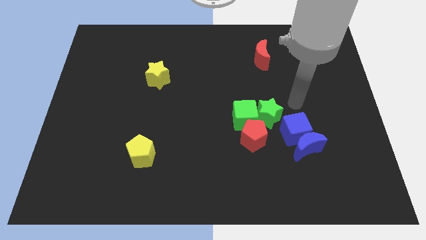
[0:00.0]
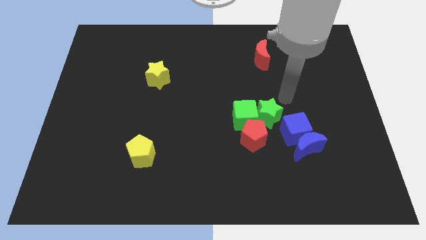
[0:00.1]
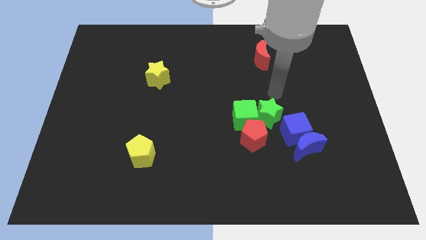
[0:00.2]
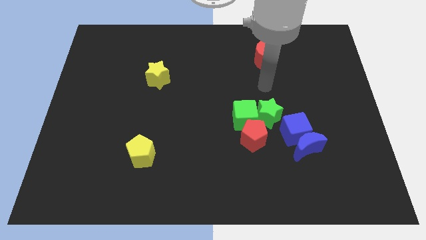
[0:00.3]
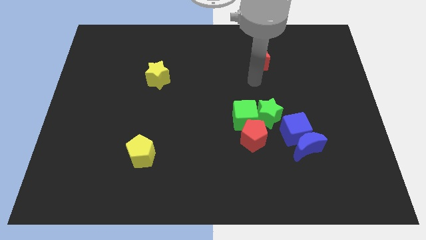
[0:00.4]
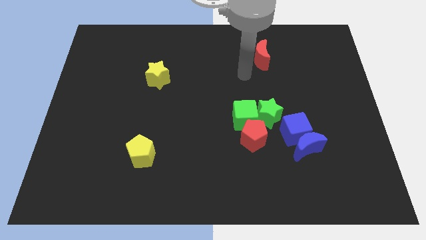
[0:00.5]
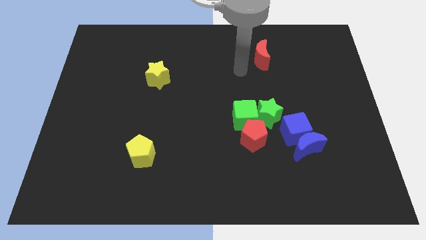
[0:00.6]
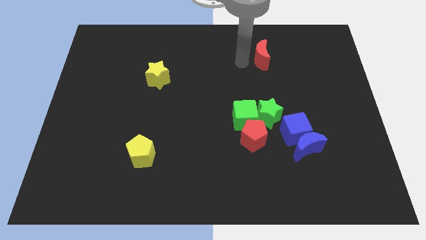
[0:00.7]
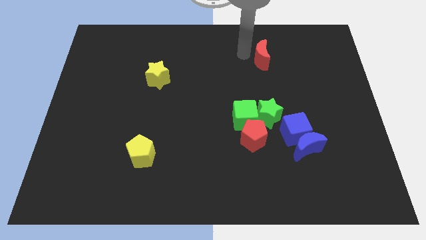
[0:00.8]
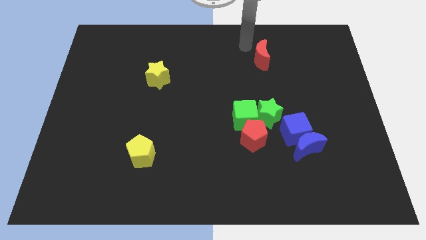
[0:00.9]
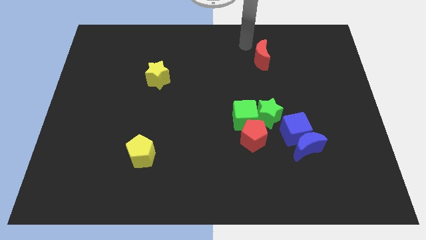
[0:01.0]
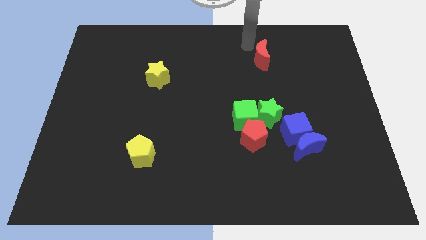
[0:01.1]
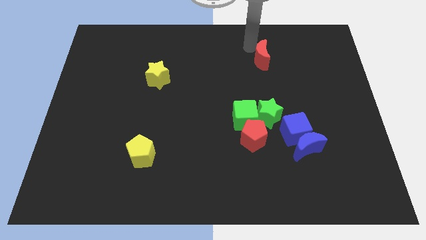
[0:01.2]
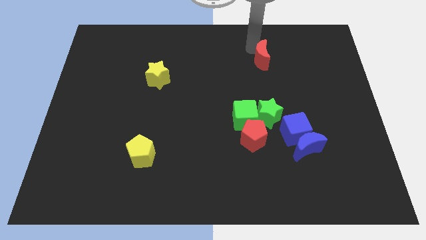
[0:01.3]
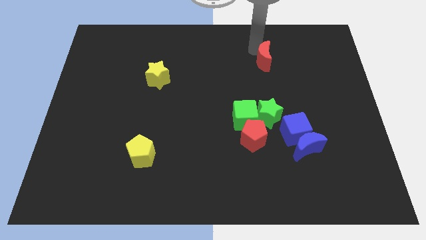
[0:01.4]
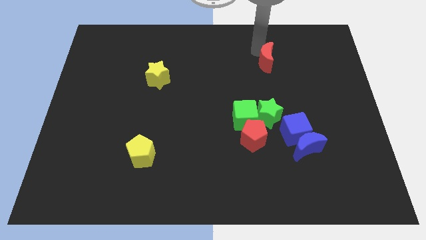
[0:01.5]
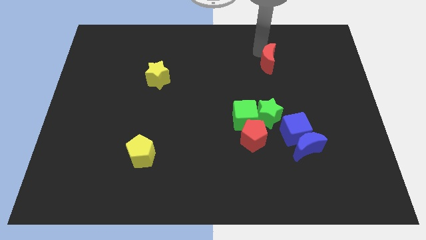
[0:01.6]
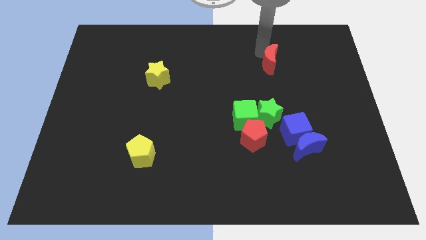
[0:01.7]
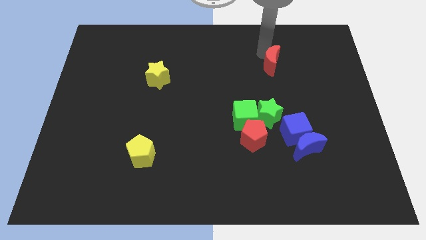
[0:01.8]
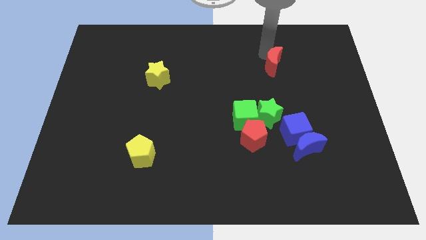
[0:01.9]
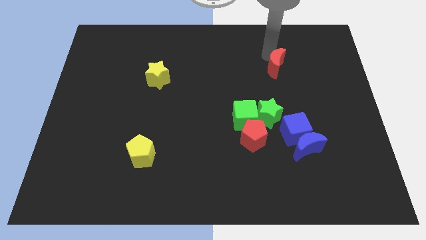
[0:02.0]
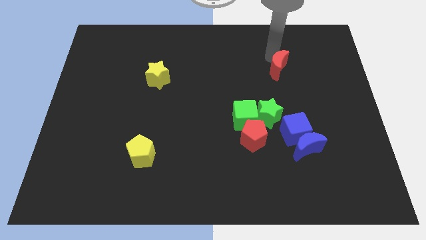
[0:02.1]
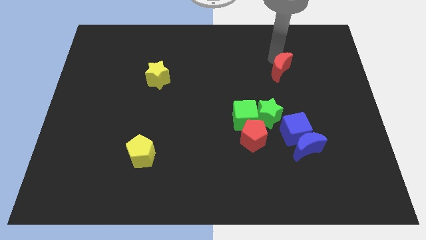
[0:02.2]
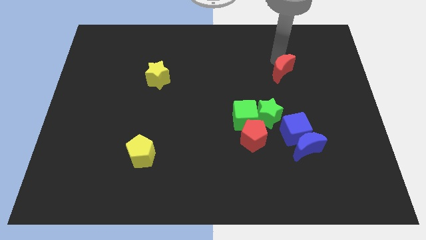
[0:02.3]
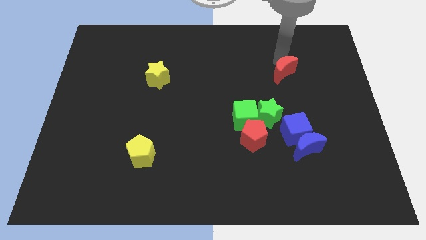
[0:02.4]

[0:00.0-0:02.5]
slightly move the red moon down and then right

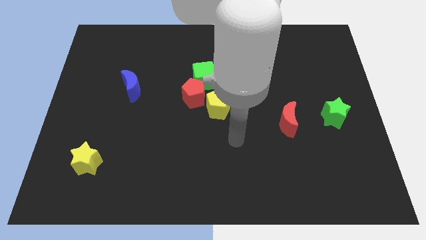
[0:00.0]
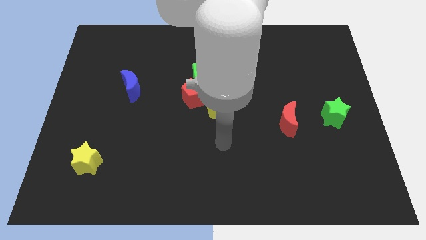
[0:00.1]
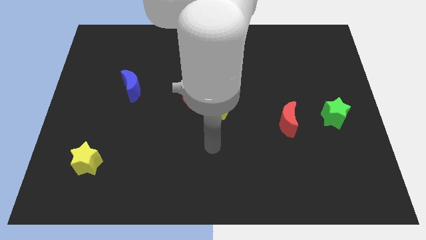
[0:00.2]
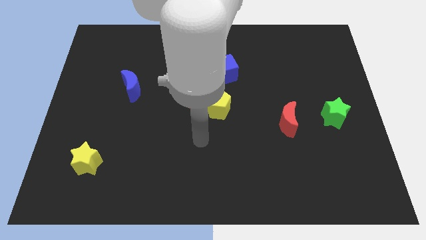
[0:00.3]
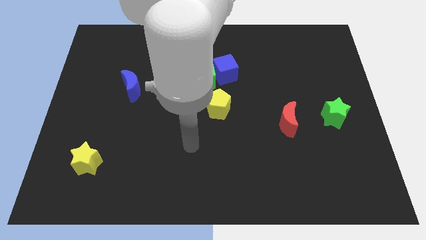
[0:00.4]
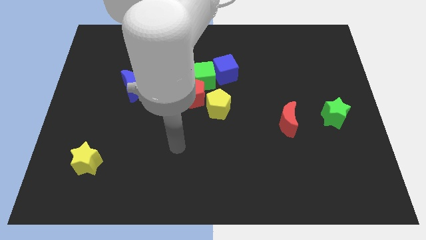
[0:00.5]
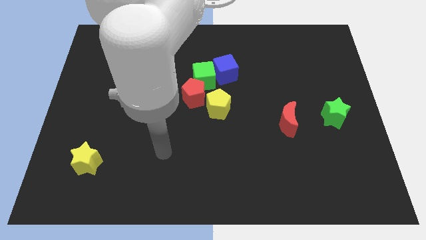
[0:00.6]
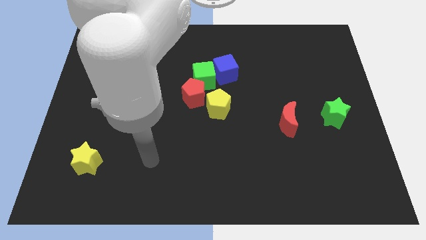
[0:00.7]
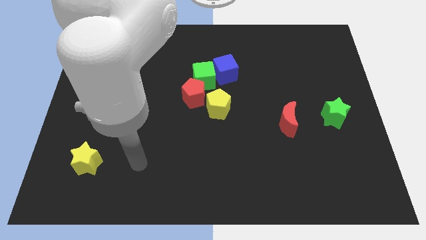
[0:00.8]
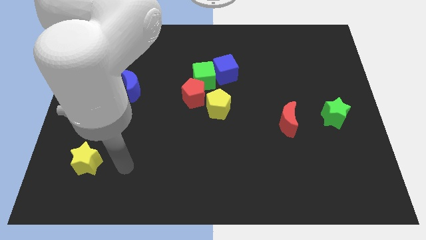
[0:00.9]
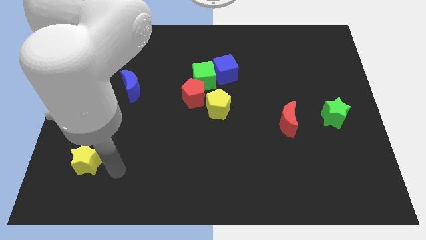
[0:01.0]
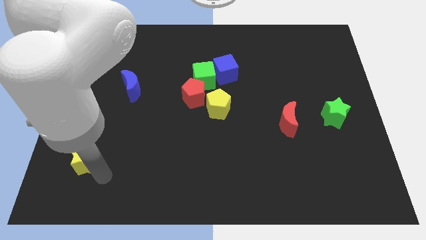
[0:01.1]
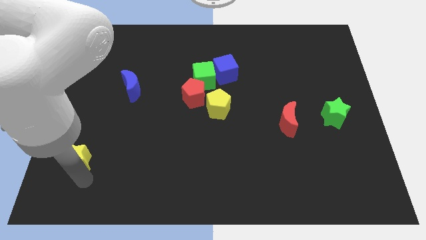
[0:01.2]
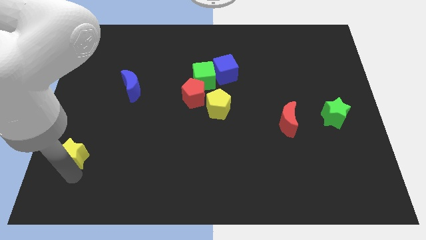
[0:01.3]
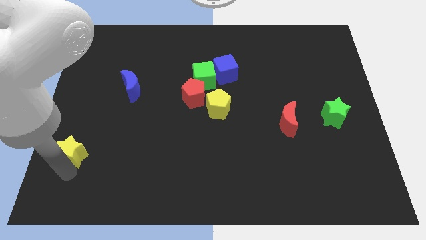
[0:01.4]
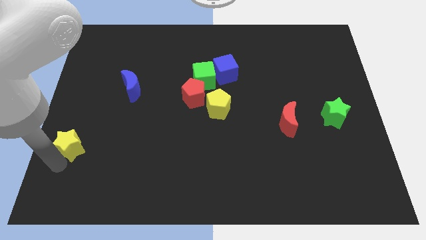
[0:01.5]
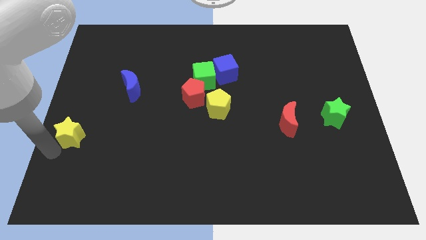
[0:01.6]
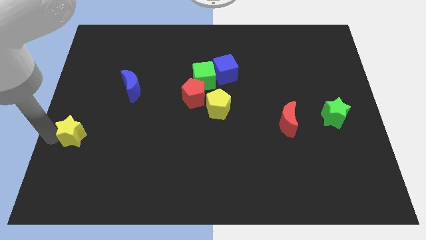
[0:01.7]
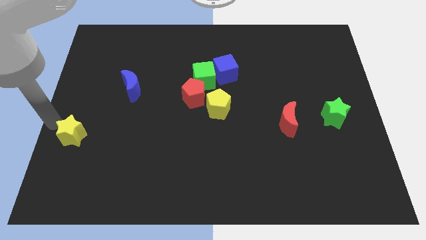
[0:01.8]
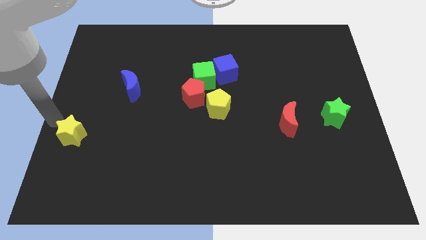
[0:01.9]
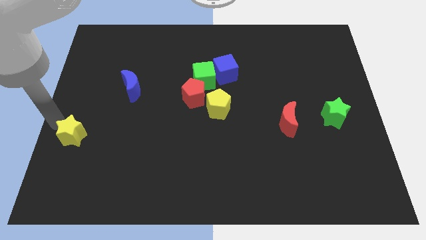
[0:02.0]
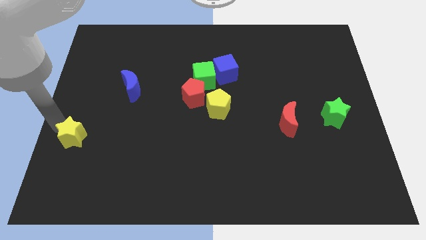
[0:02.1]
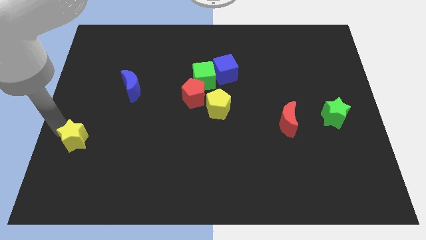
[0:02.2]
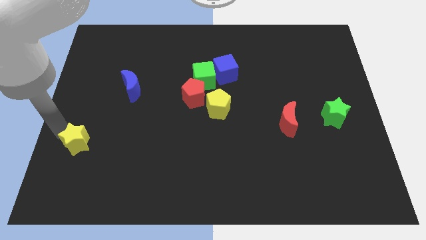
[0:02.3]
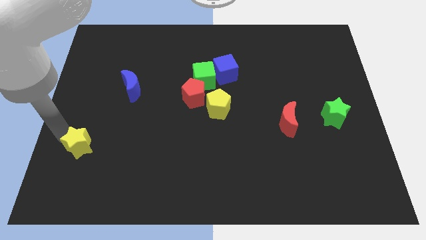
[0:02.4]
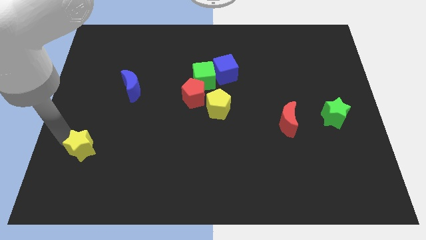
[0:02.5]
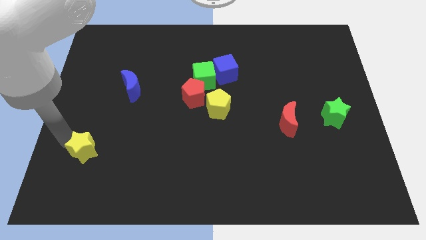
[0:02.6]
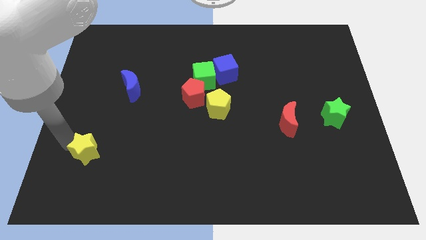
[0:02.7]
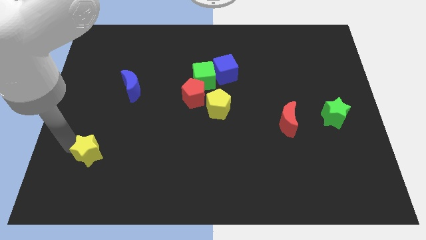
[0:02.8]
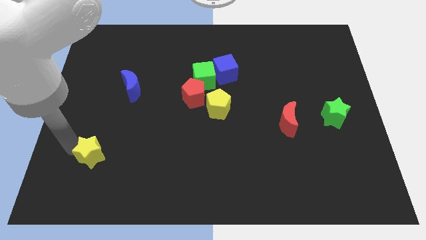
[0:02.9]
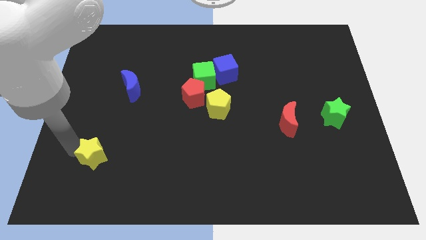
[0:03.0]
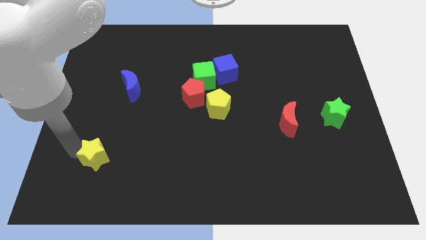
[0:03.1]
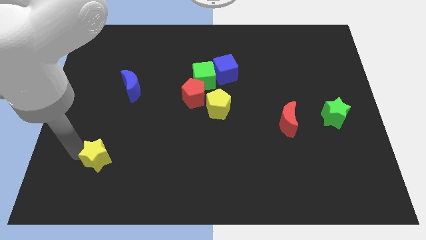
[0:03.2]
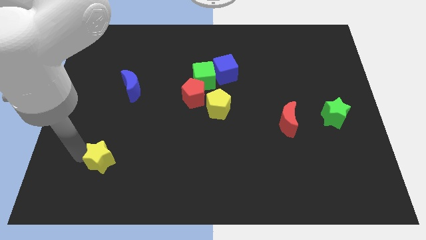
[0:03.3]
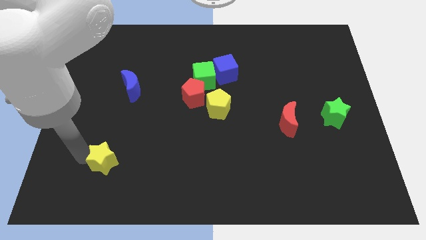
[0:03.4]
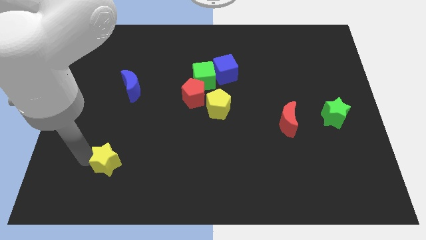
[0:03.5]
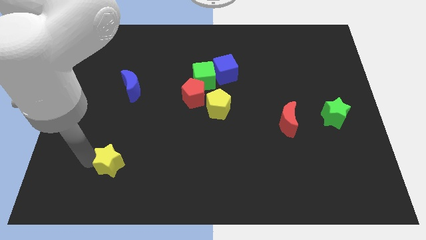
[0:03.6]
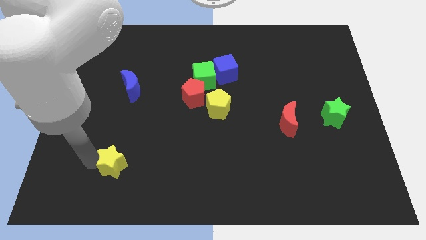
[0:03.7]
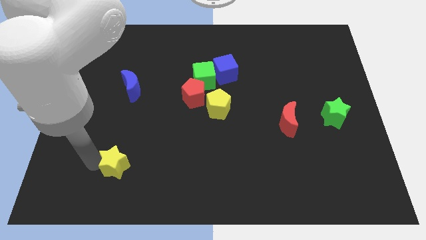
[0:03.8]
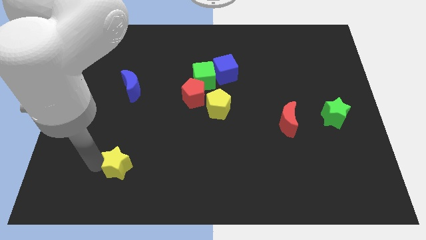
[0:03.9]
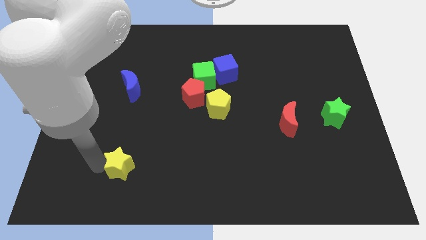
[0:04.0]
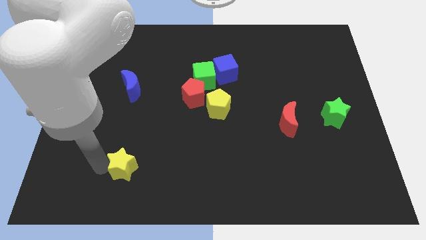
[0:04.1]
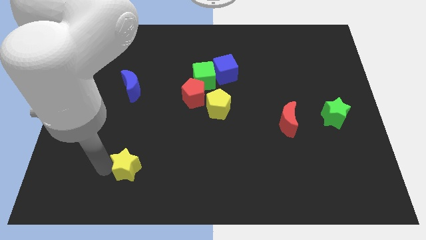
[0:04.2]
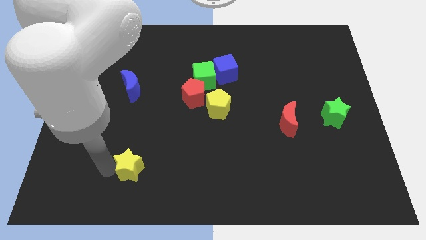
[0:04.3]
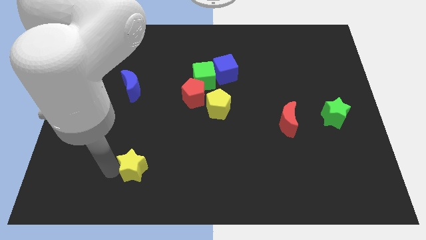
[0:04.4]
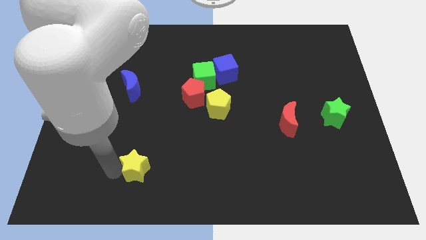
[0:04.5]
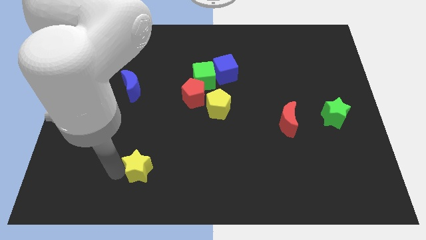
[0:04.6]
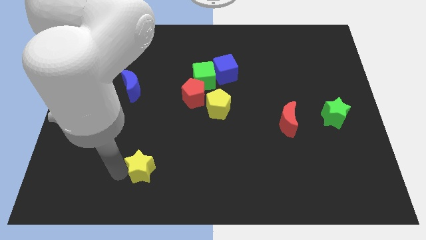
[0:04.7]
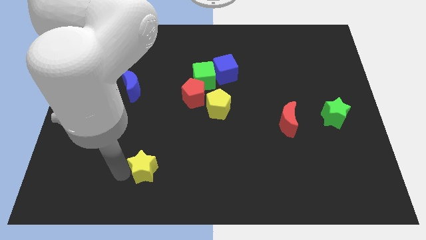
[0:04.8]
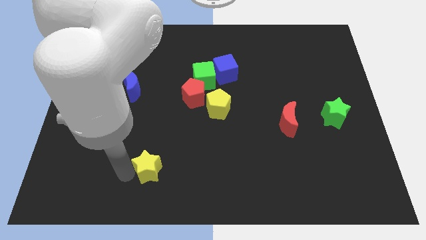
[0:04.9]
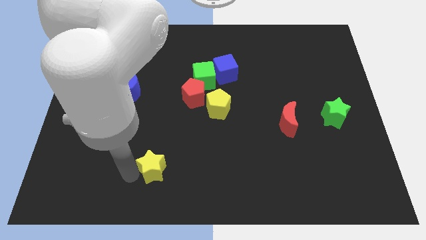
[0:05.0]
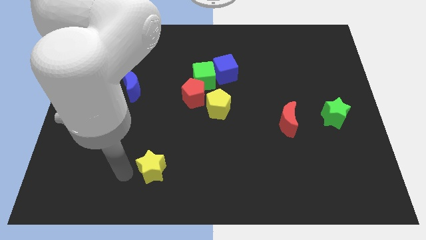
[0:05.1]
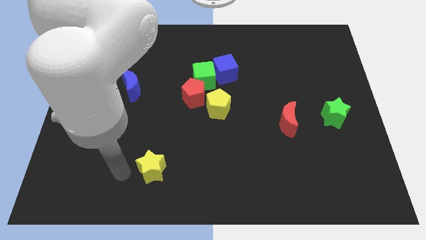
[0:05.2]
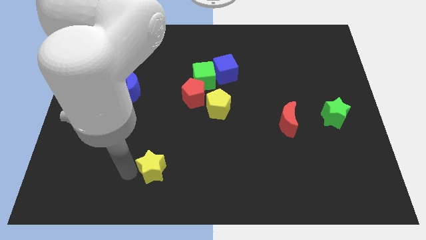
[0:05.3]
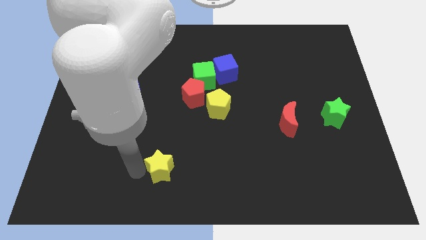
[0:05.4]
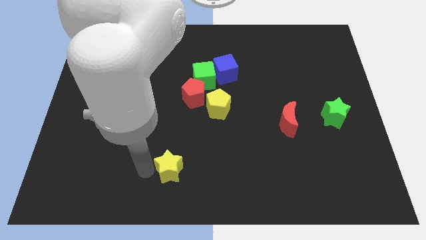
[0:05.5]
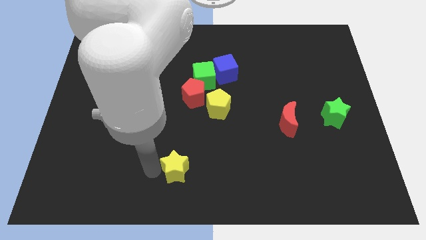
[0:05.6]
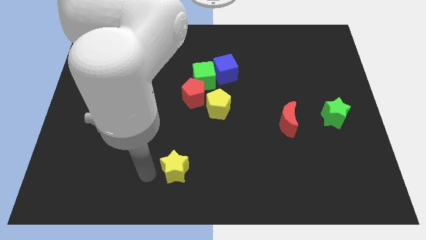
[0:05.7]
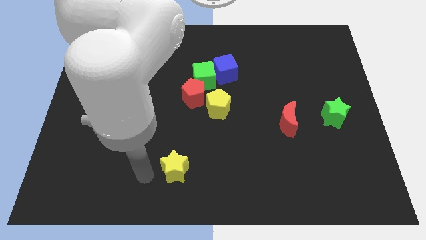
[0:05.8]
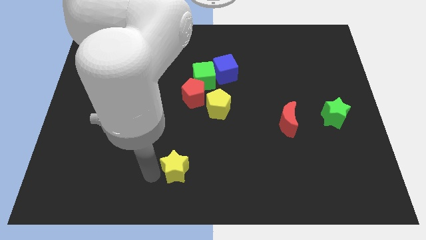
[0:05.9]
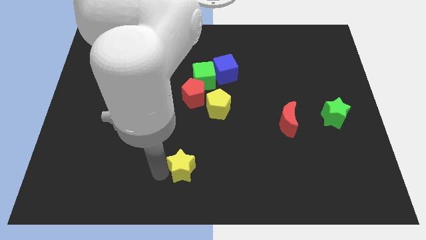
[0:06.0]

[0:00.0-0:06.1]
push the yellow star to the right
